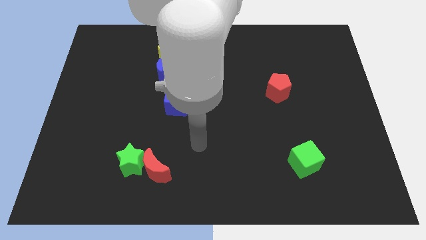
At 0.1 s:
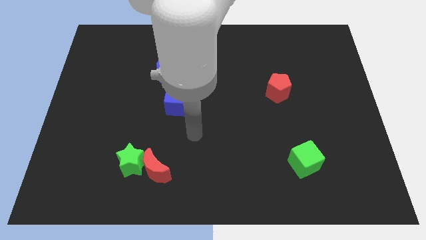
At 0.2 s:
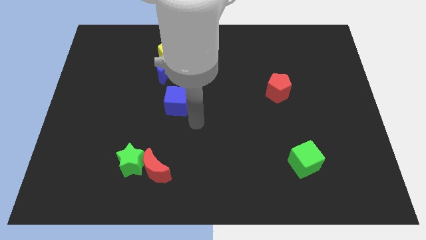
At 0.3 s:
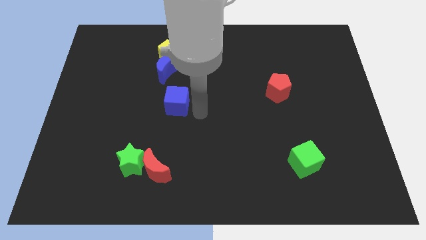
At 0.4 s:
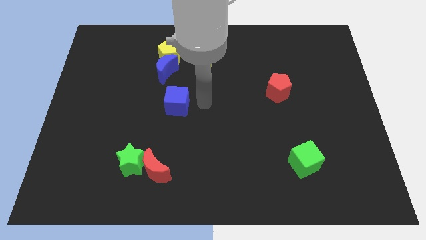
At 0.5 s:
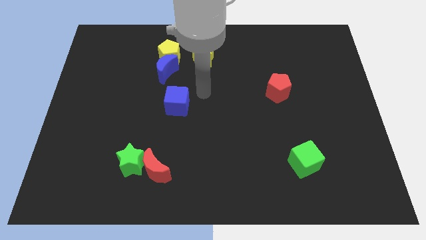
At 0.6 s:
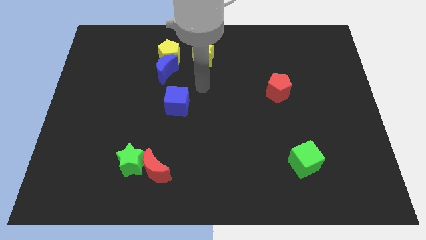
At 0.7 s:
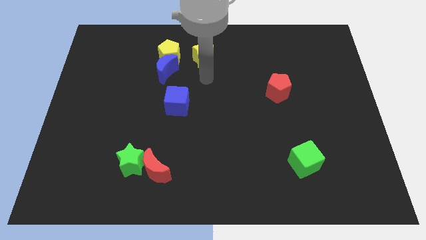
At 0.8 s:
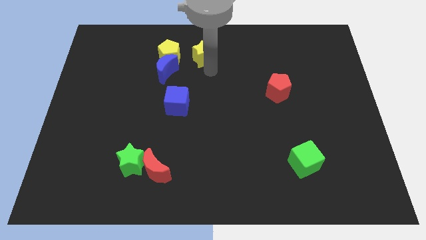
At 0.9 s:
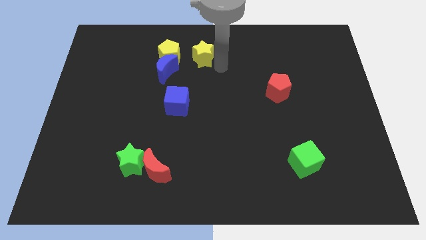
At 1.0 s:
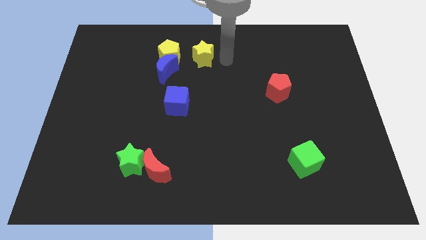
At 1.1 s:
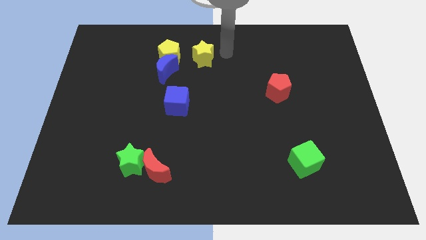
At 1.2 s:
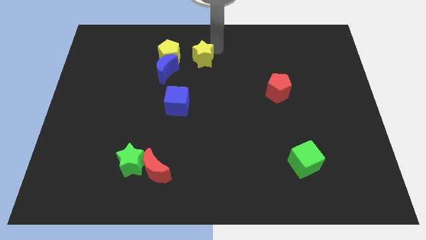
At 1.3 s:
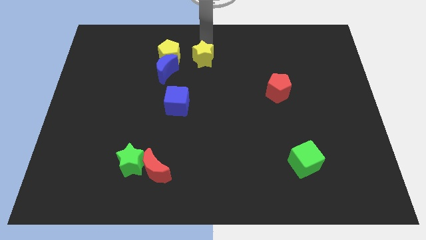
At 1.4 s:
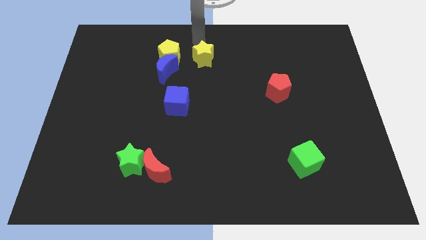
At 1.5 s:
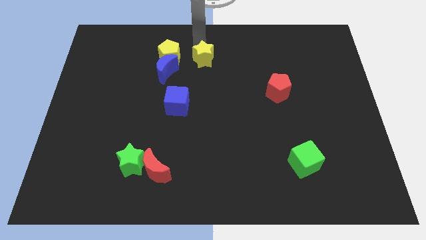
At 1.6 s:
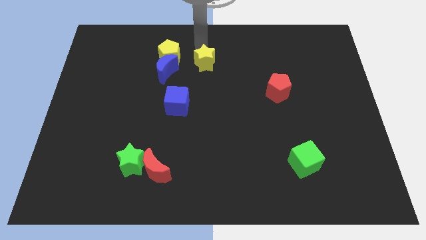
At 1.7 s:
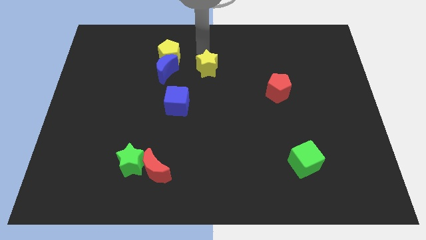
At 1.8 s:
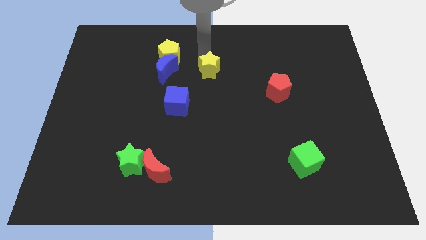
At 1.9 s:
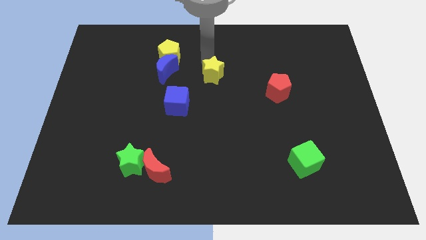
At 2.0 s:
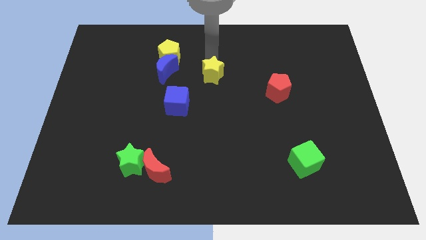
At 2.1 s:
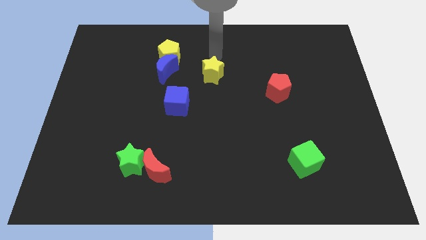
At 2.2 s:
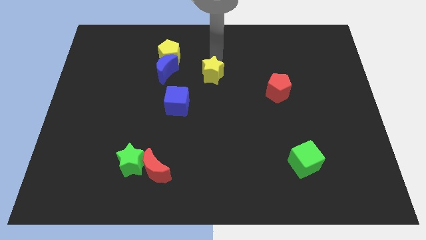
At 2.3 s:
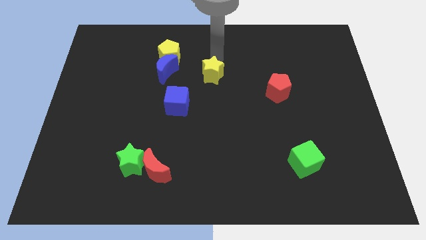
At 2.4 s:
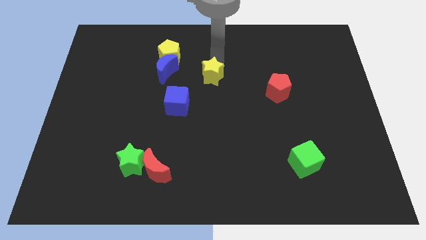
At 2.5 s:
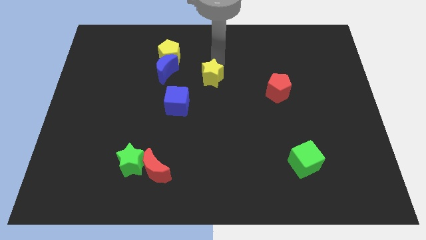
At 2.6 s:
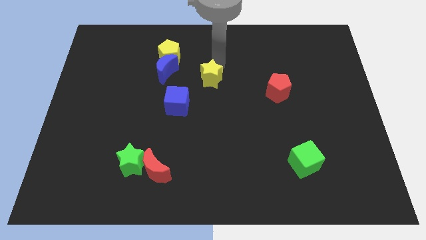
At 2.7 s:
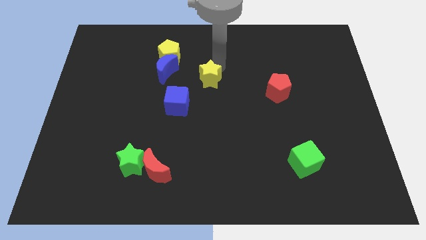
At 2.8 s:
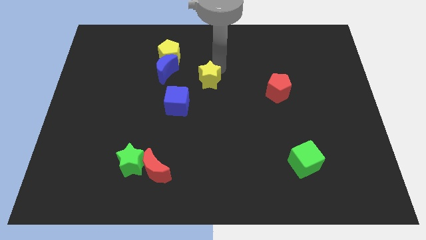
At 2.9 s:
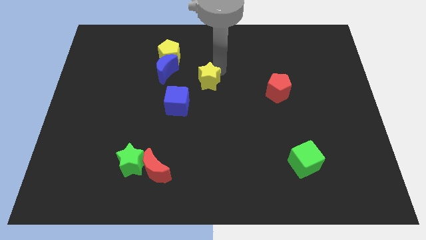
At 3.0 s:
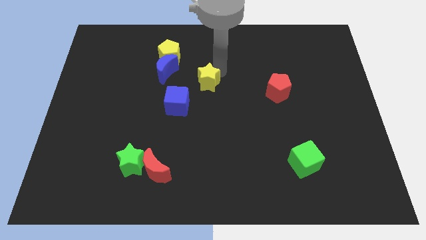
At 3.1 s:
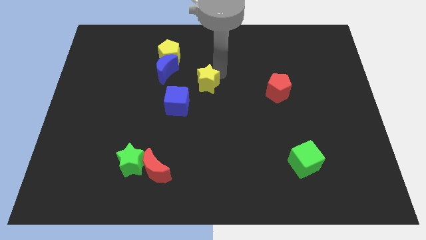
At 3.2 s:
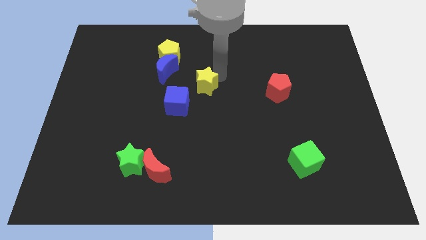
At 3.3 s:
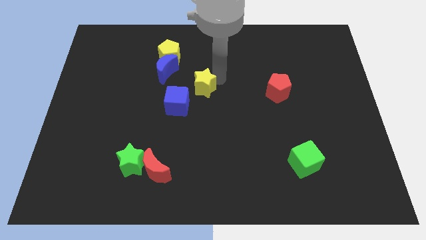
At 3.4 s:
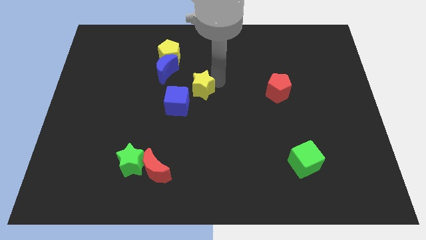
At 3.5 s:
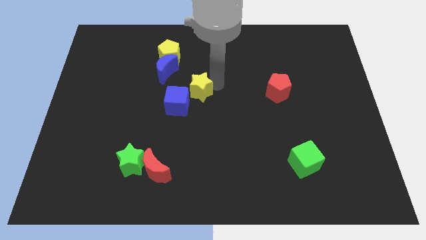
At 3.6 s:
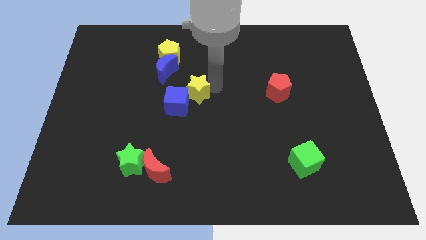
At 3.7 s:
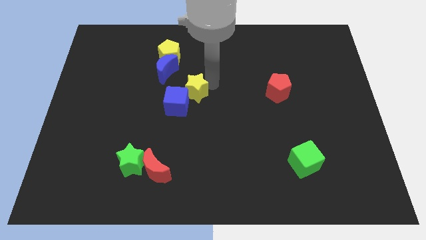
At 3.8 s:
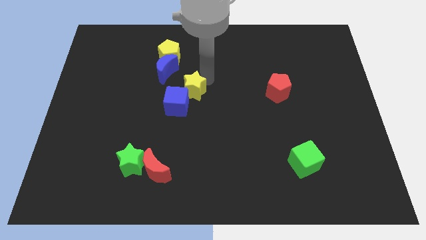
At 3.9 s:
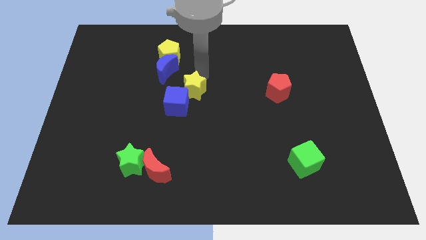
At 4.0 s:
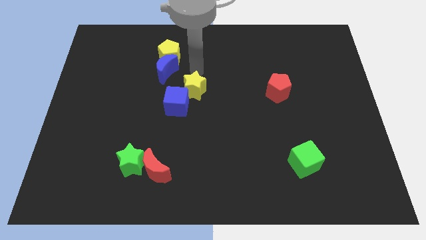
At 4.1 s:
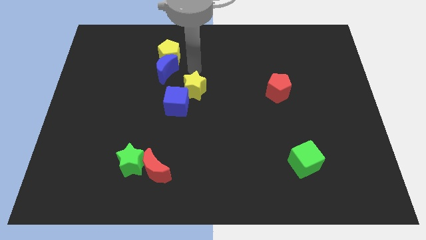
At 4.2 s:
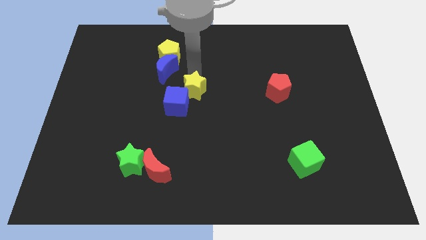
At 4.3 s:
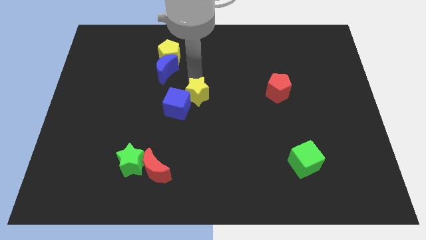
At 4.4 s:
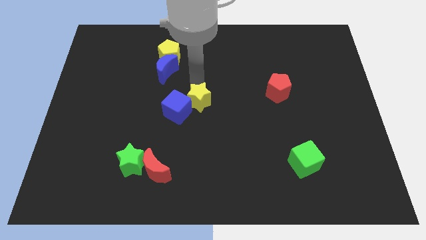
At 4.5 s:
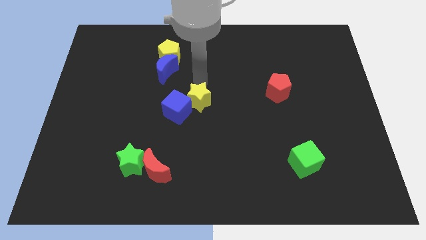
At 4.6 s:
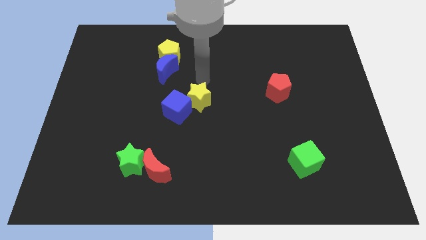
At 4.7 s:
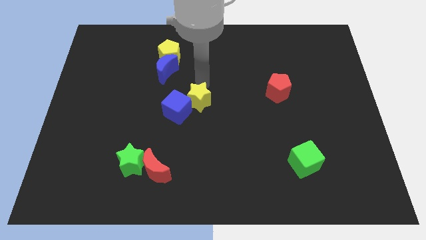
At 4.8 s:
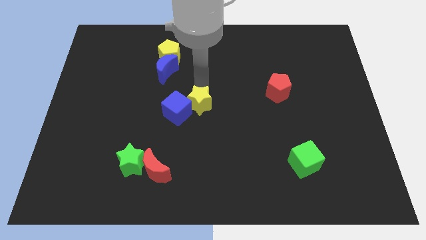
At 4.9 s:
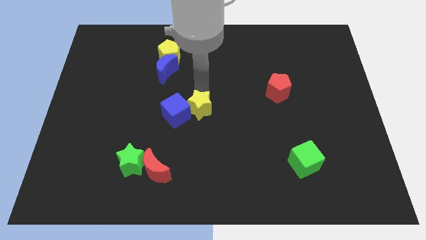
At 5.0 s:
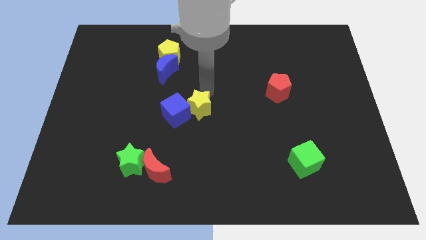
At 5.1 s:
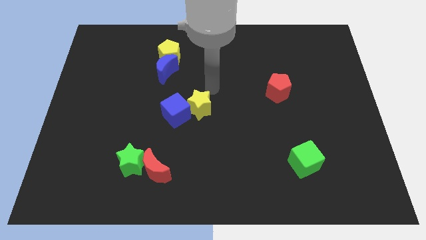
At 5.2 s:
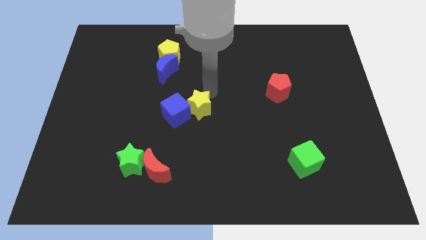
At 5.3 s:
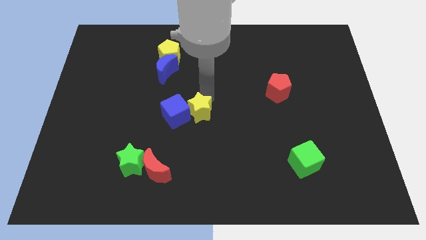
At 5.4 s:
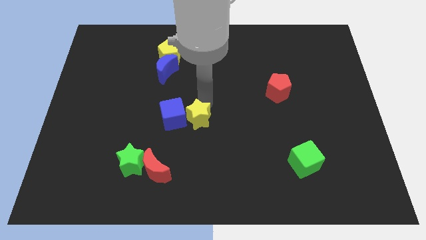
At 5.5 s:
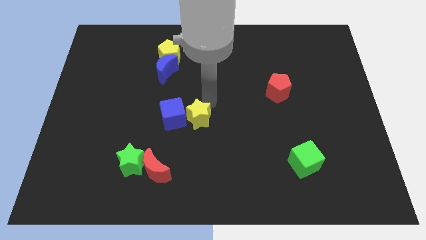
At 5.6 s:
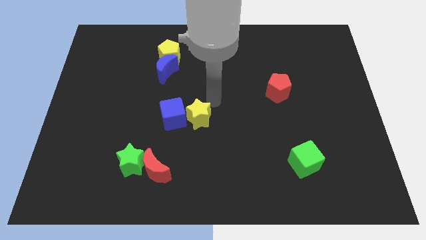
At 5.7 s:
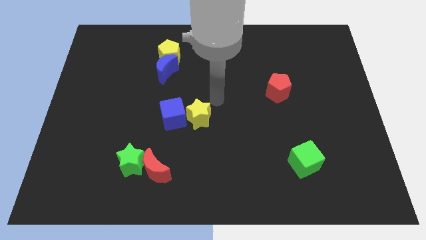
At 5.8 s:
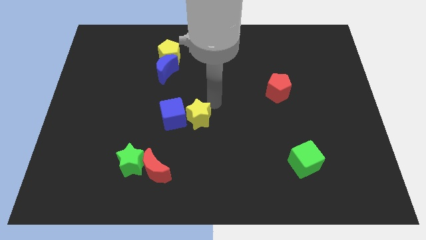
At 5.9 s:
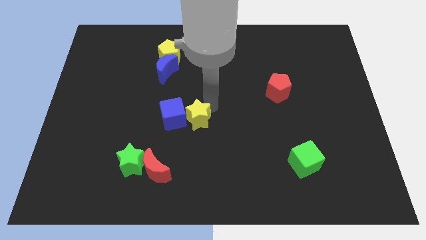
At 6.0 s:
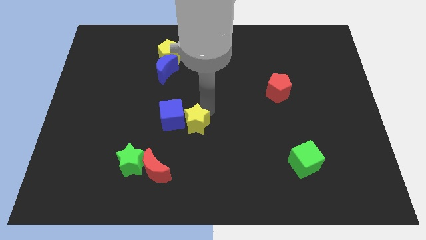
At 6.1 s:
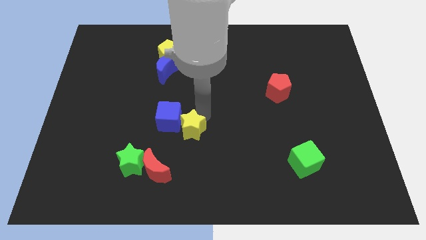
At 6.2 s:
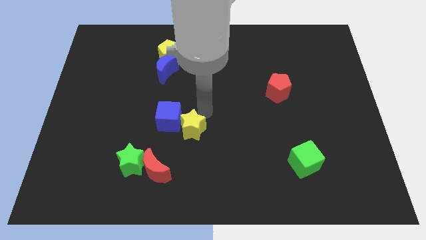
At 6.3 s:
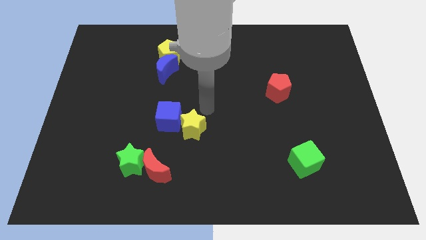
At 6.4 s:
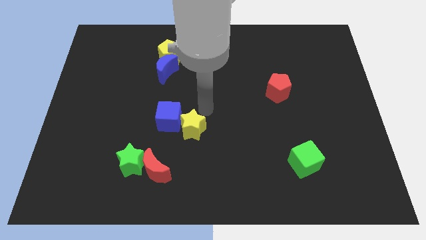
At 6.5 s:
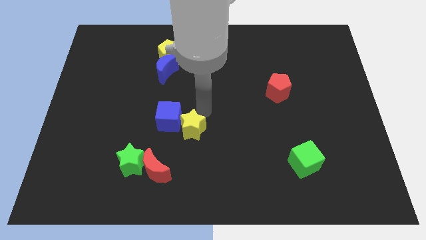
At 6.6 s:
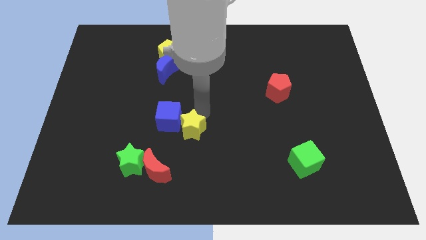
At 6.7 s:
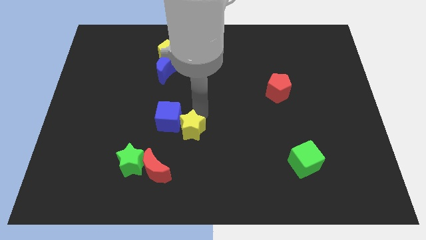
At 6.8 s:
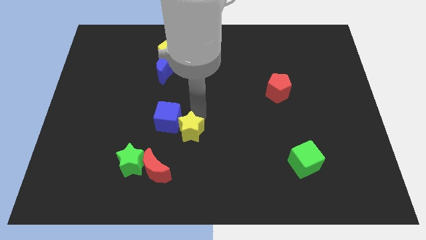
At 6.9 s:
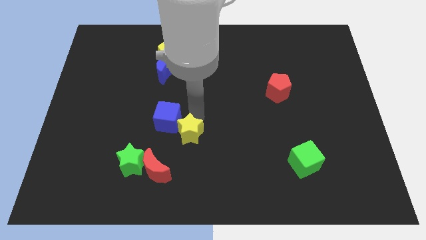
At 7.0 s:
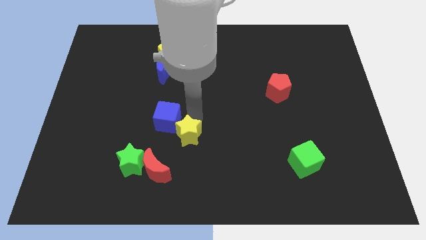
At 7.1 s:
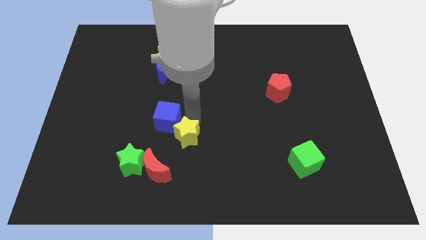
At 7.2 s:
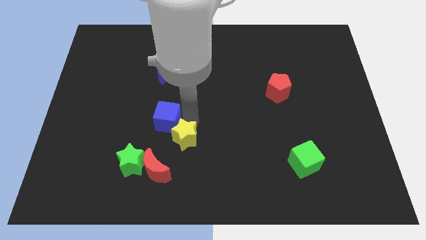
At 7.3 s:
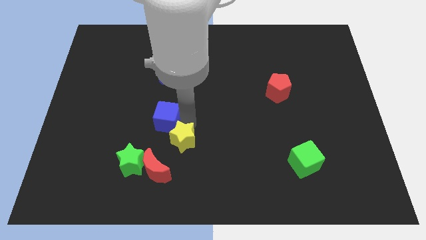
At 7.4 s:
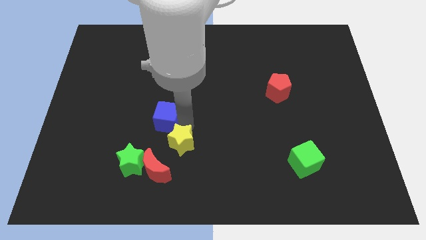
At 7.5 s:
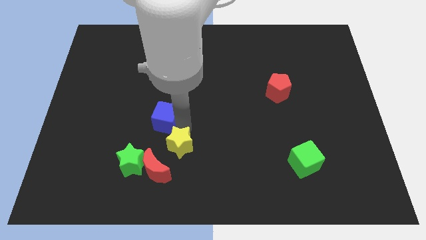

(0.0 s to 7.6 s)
put the yellow star just right of the green star

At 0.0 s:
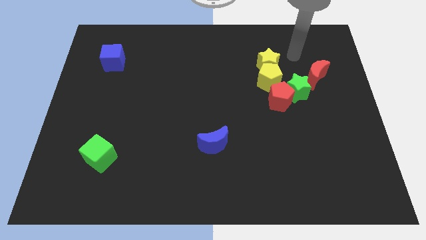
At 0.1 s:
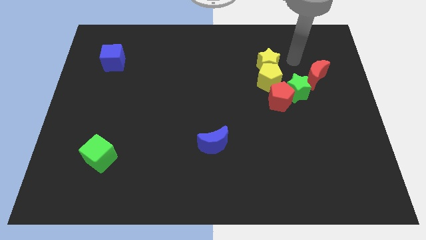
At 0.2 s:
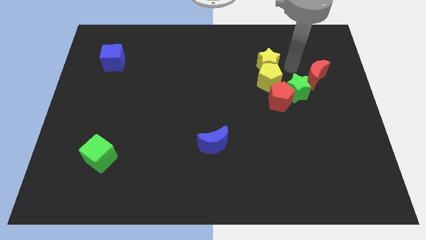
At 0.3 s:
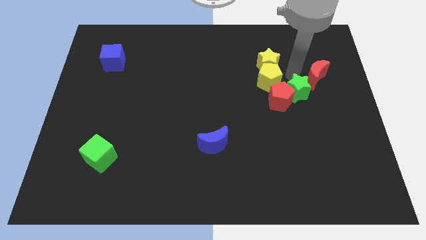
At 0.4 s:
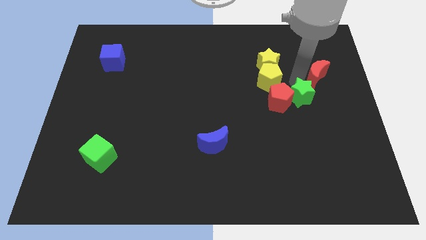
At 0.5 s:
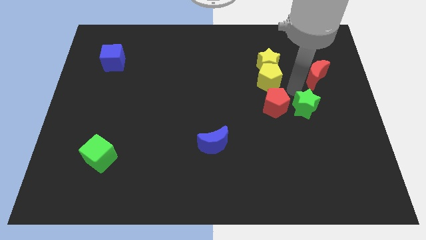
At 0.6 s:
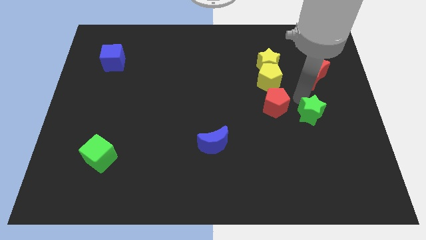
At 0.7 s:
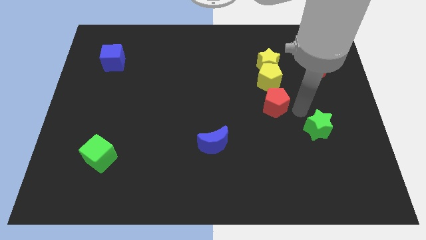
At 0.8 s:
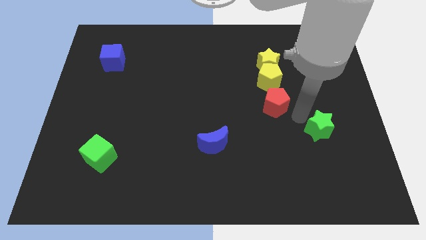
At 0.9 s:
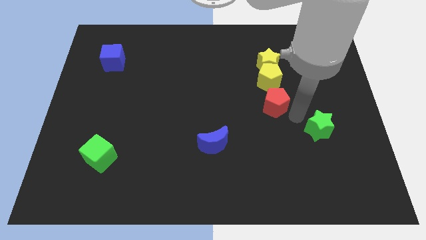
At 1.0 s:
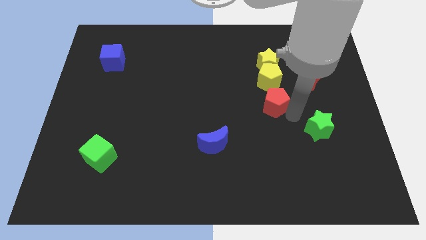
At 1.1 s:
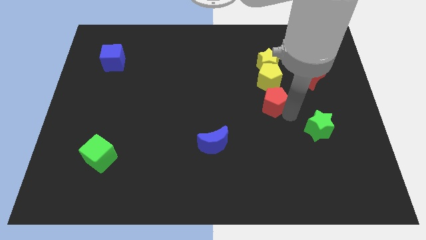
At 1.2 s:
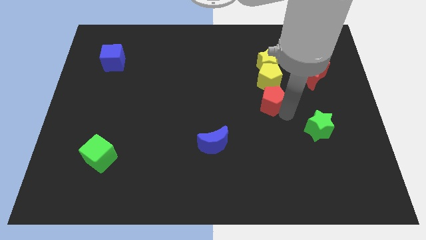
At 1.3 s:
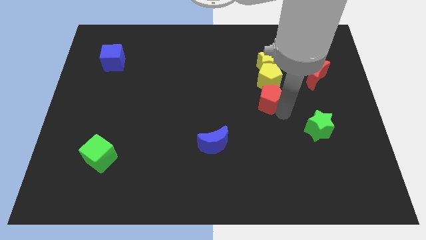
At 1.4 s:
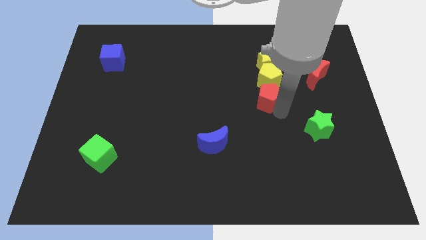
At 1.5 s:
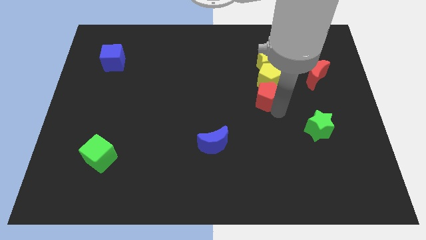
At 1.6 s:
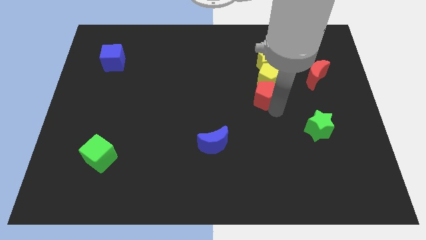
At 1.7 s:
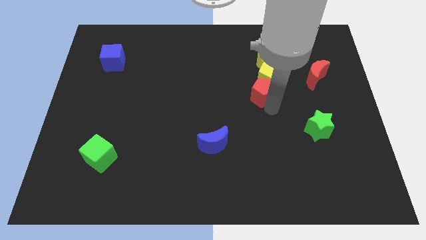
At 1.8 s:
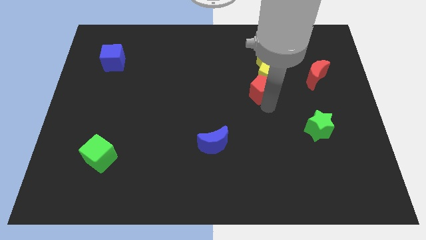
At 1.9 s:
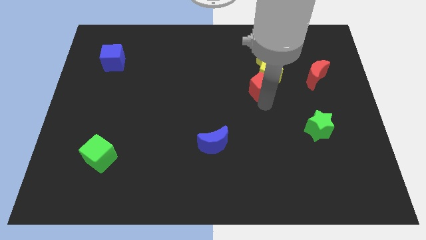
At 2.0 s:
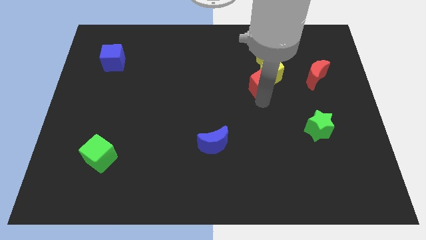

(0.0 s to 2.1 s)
push the red pentagon to the left of the yellow pentagon
